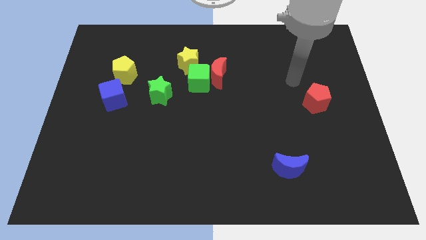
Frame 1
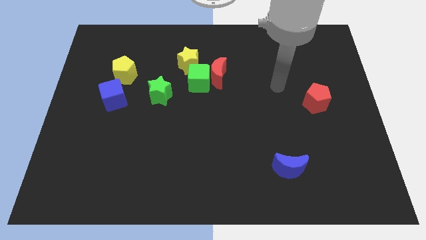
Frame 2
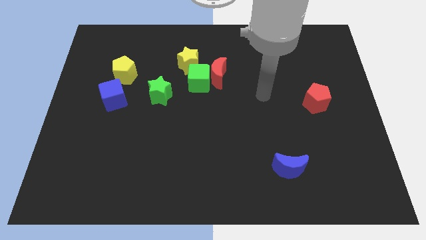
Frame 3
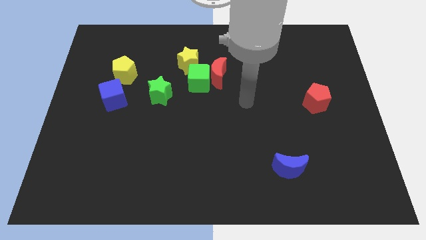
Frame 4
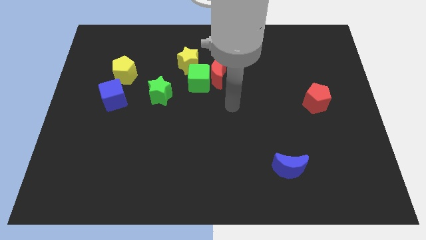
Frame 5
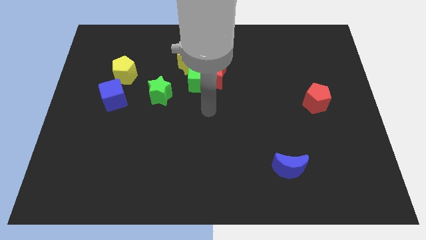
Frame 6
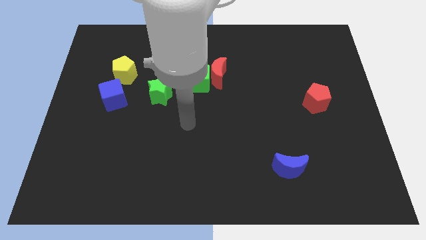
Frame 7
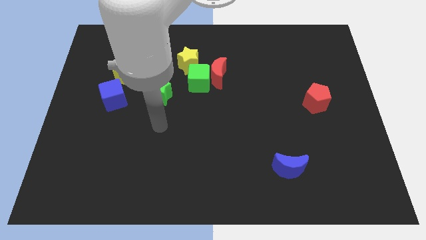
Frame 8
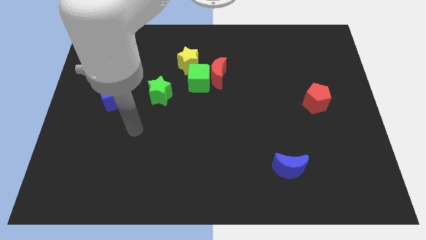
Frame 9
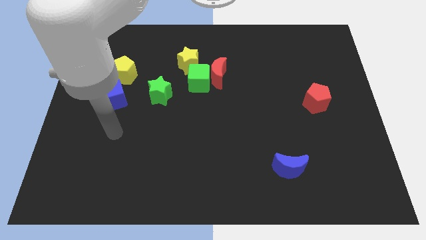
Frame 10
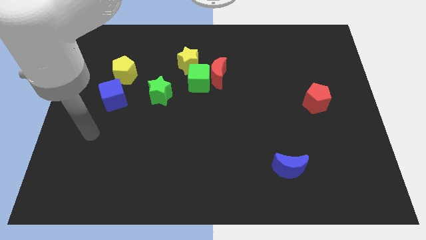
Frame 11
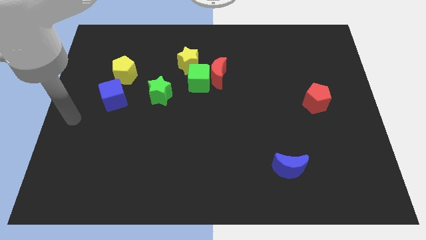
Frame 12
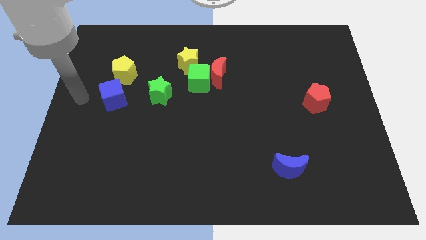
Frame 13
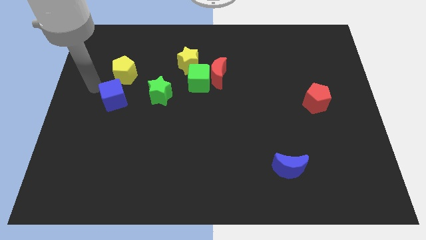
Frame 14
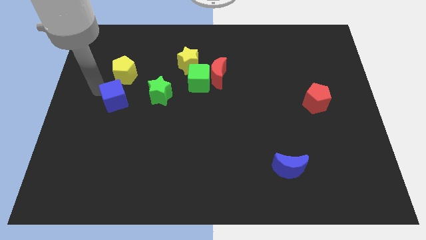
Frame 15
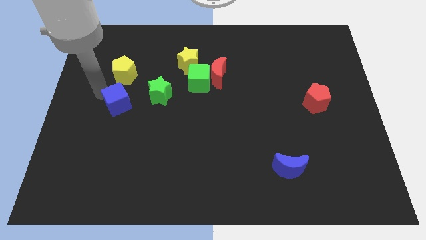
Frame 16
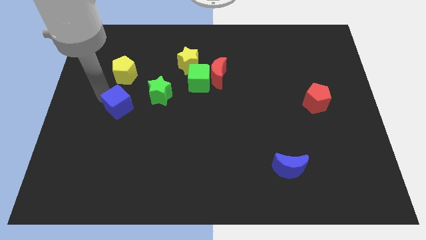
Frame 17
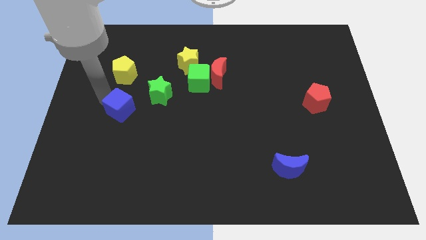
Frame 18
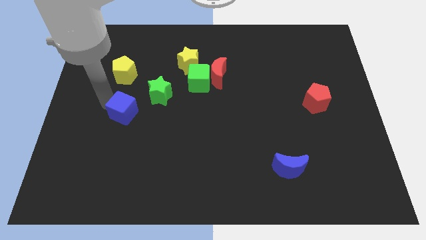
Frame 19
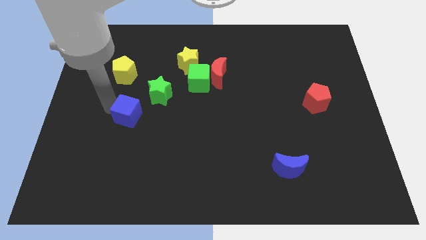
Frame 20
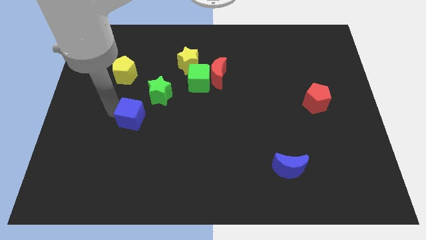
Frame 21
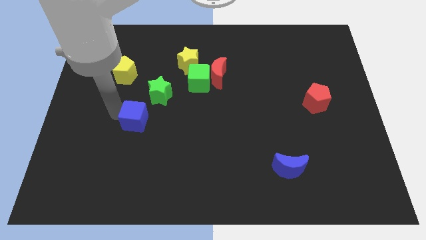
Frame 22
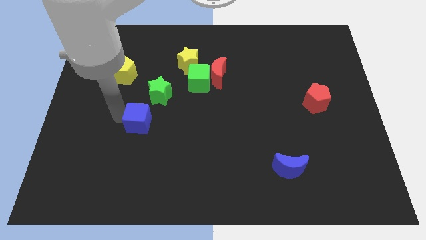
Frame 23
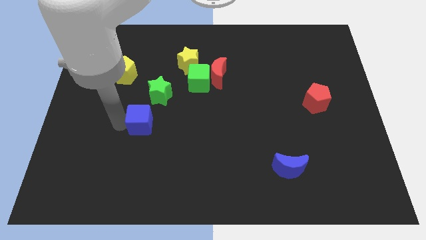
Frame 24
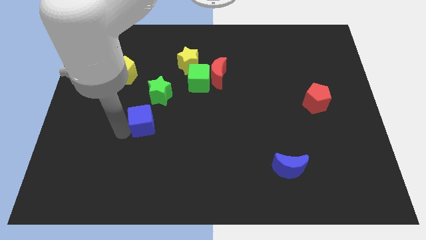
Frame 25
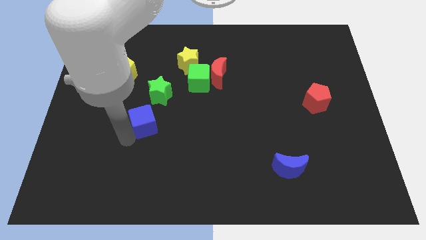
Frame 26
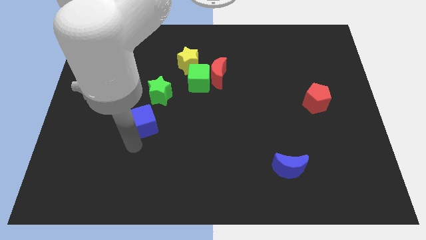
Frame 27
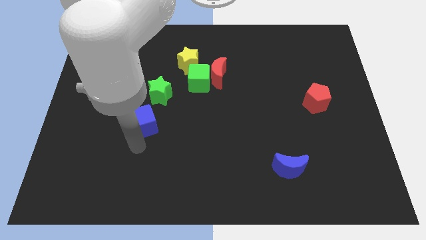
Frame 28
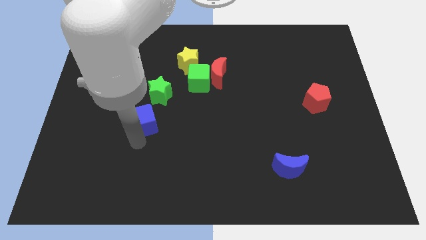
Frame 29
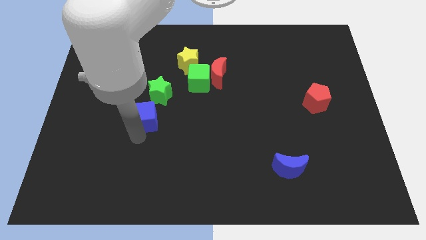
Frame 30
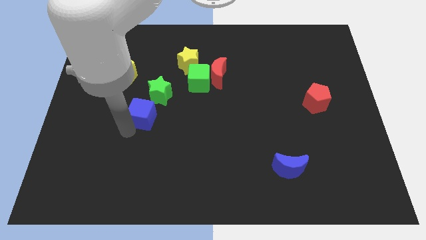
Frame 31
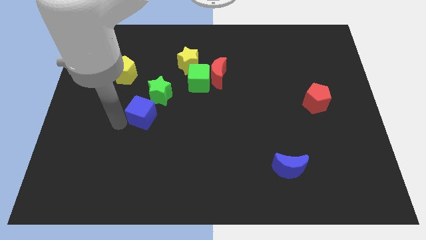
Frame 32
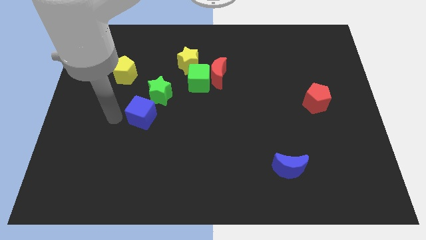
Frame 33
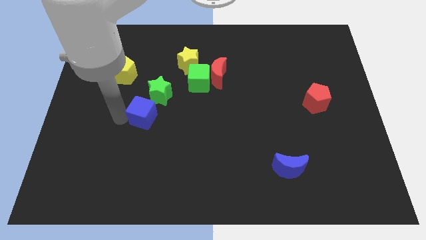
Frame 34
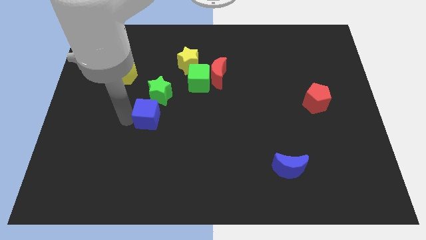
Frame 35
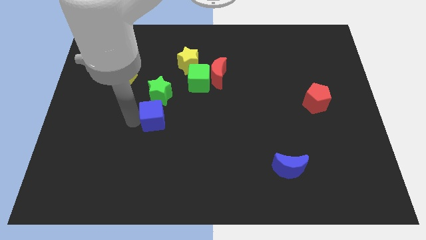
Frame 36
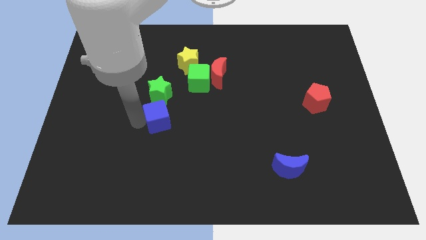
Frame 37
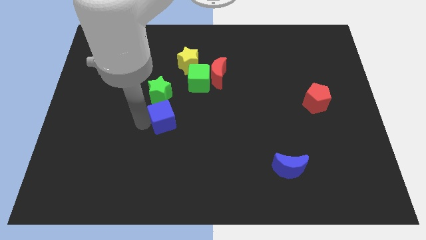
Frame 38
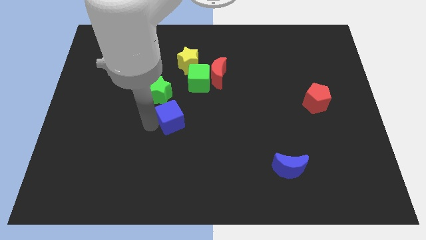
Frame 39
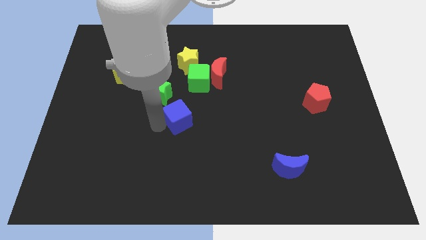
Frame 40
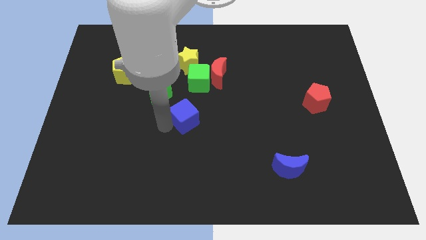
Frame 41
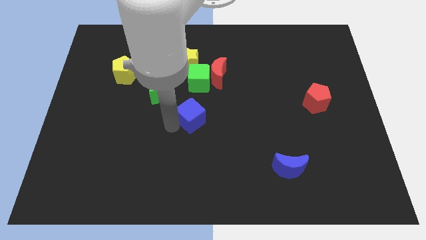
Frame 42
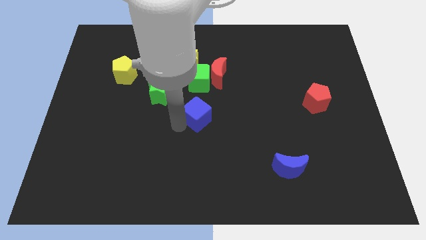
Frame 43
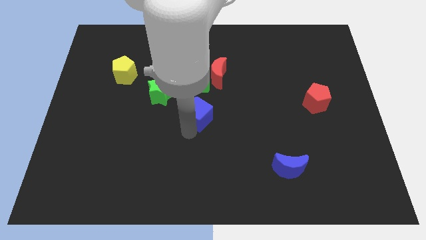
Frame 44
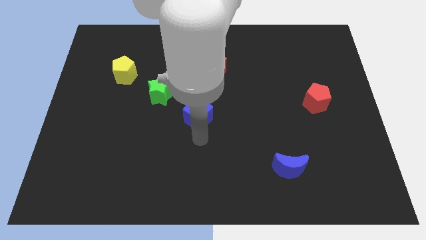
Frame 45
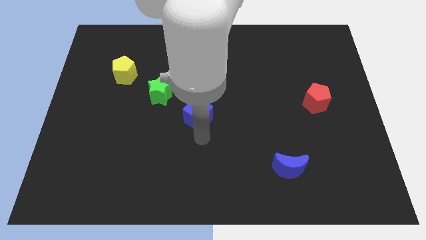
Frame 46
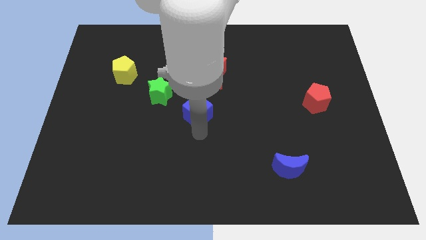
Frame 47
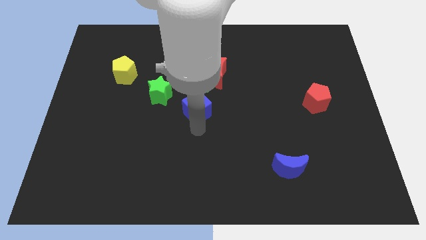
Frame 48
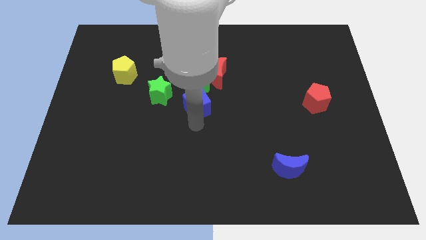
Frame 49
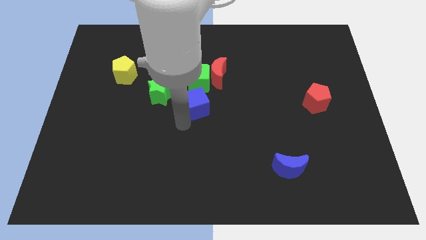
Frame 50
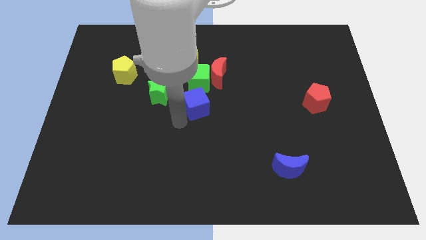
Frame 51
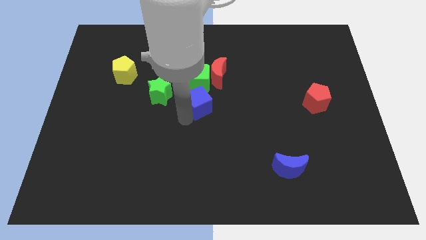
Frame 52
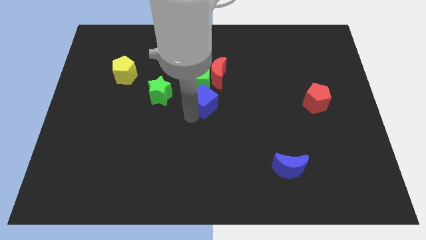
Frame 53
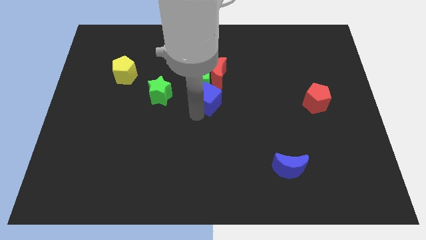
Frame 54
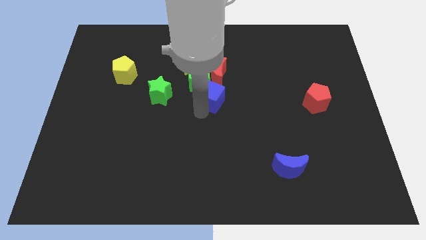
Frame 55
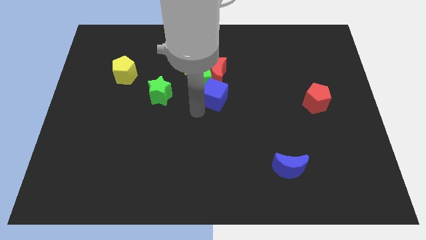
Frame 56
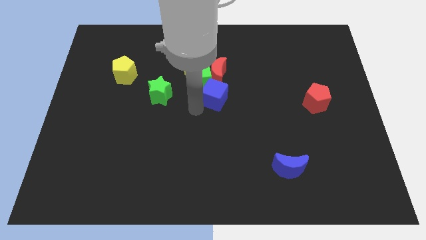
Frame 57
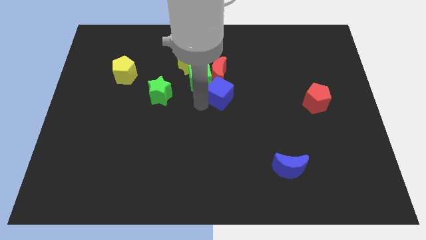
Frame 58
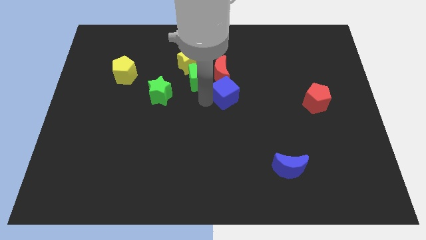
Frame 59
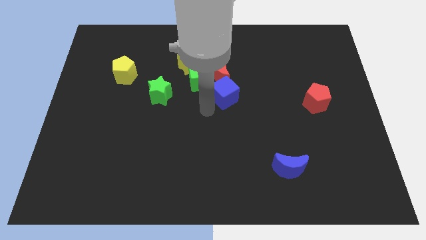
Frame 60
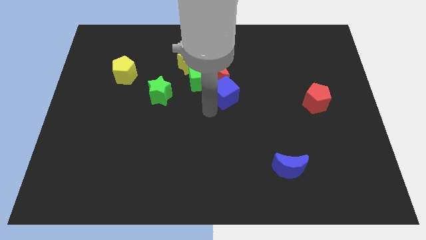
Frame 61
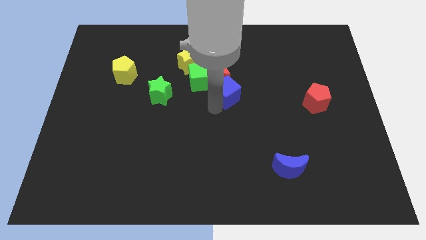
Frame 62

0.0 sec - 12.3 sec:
push the blue cube to the right side of the green cube
